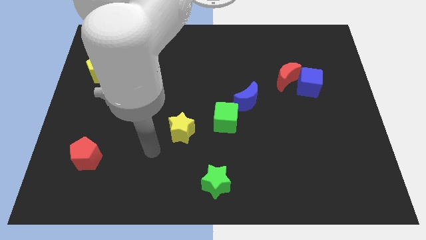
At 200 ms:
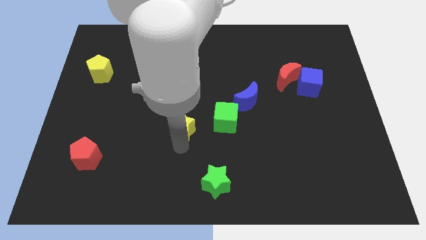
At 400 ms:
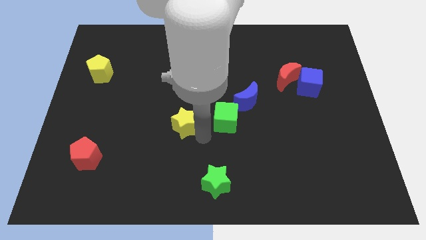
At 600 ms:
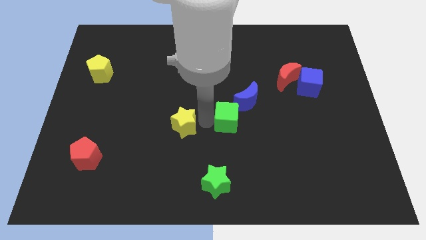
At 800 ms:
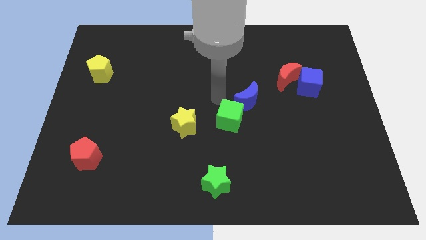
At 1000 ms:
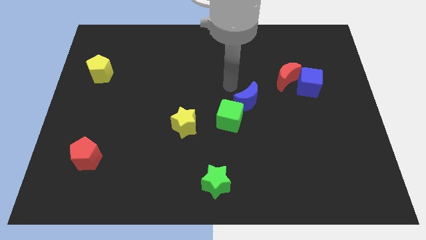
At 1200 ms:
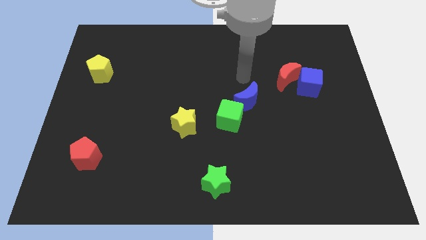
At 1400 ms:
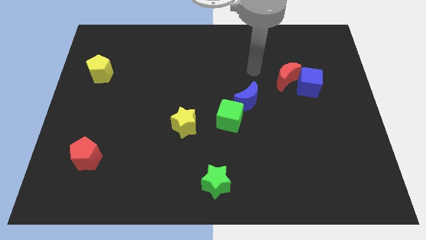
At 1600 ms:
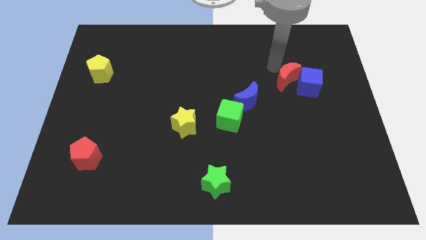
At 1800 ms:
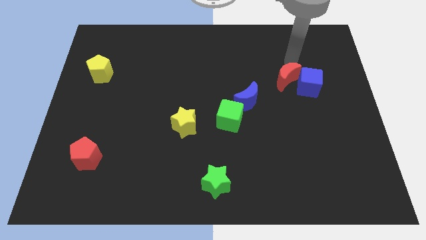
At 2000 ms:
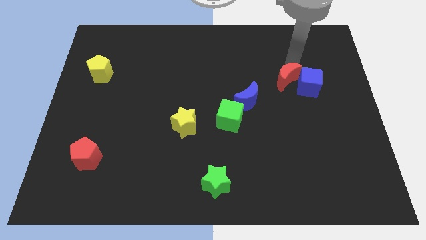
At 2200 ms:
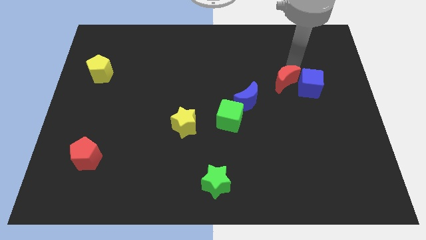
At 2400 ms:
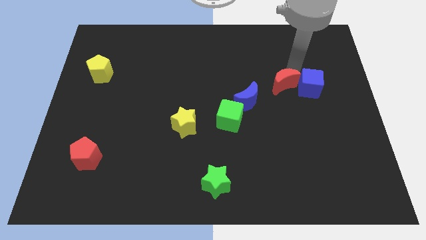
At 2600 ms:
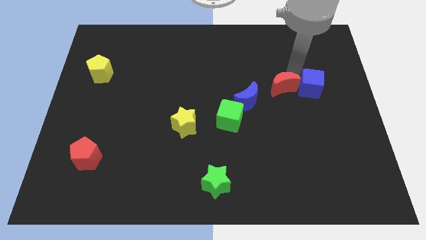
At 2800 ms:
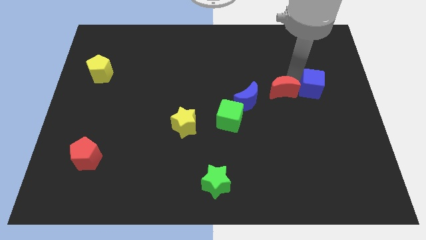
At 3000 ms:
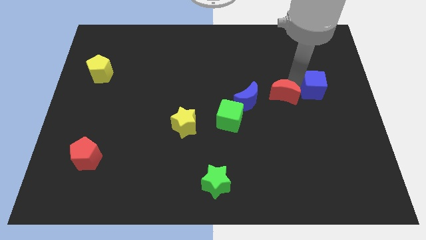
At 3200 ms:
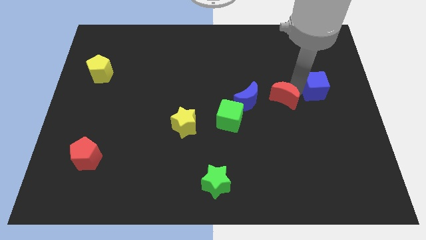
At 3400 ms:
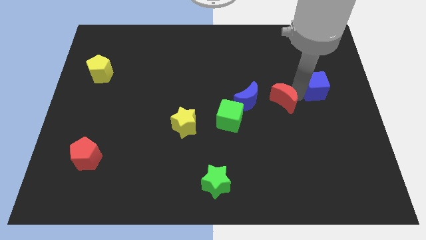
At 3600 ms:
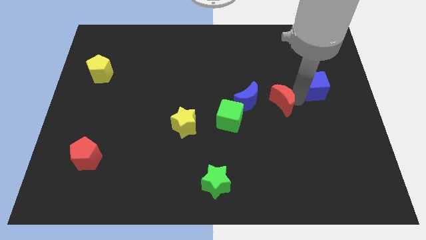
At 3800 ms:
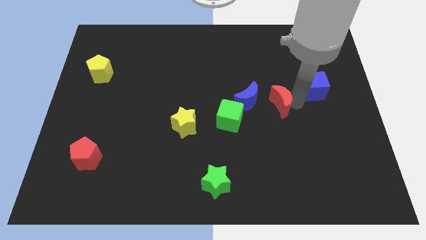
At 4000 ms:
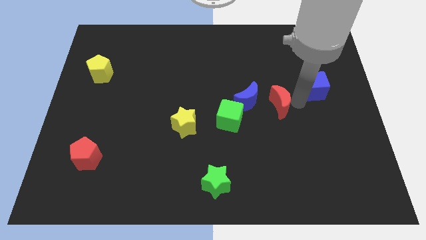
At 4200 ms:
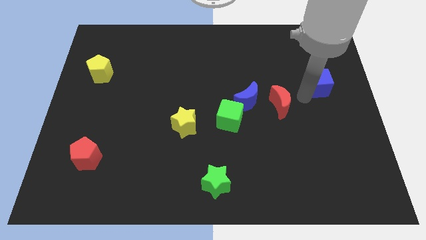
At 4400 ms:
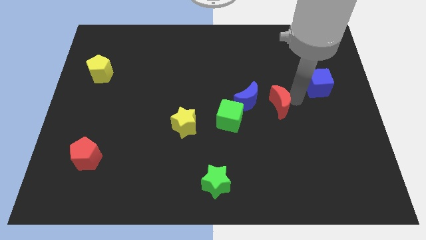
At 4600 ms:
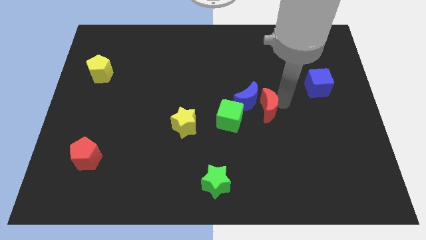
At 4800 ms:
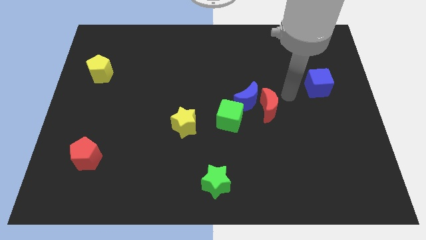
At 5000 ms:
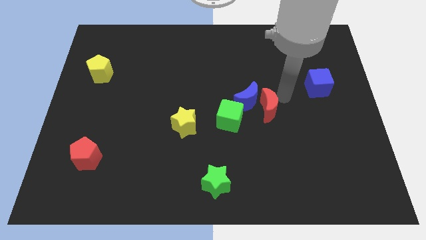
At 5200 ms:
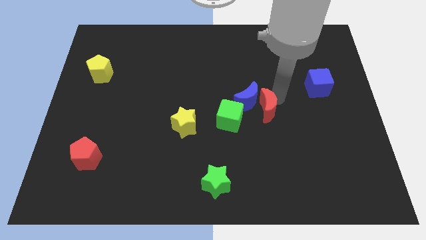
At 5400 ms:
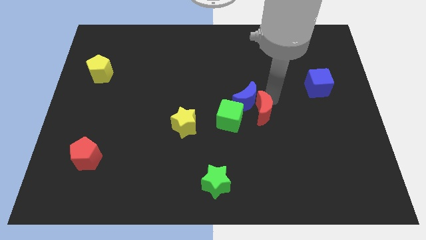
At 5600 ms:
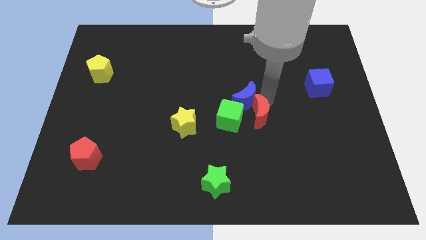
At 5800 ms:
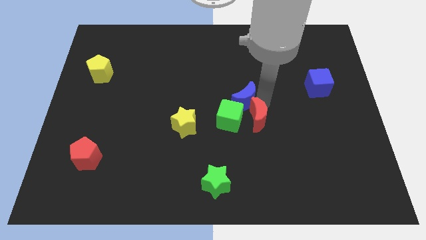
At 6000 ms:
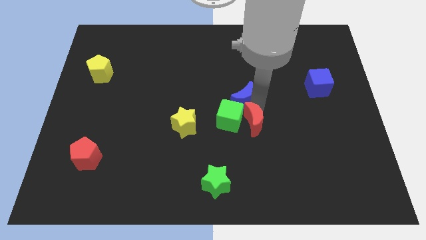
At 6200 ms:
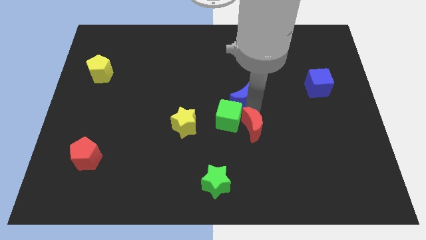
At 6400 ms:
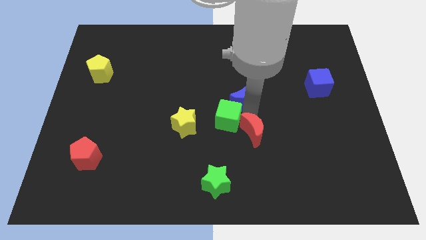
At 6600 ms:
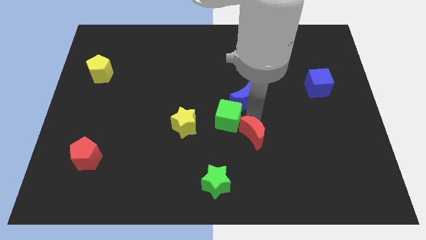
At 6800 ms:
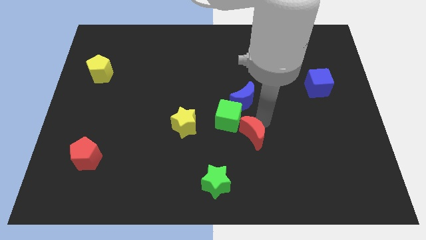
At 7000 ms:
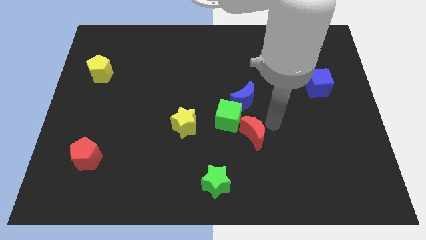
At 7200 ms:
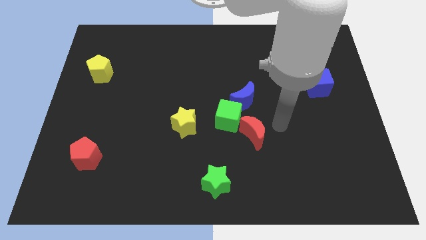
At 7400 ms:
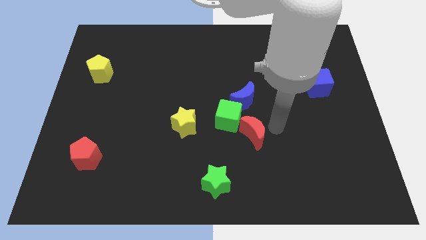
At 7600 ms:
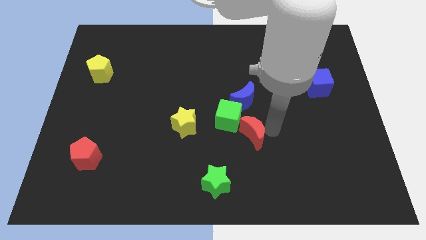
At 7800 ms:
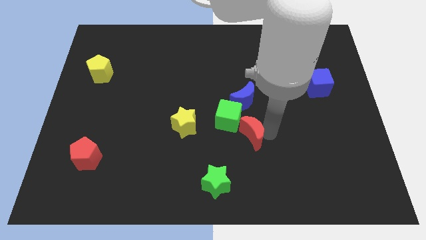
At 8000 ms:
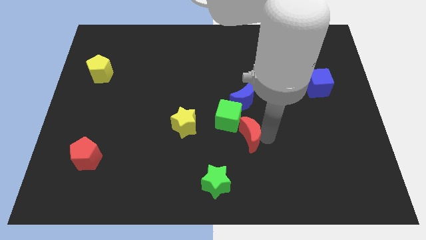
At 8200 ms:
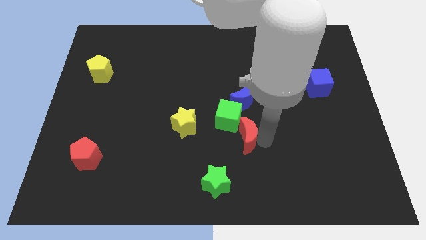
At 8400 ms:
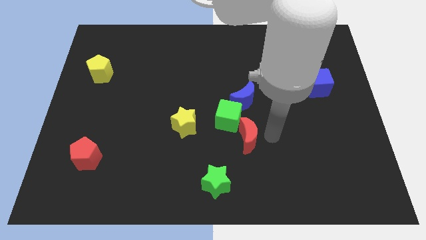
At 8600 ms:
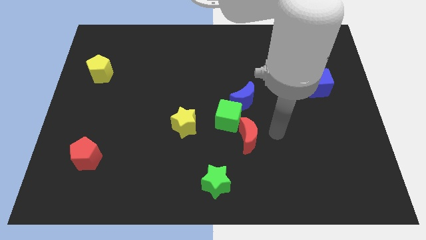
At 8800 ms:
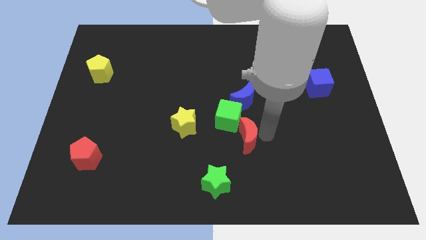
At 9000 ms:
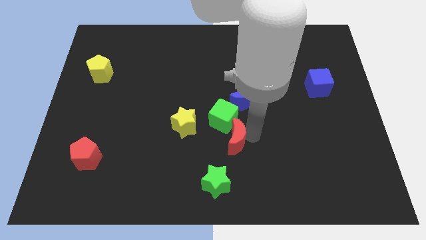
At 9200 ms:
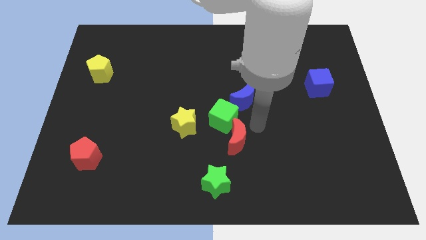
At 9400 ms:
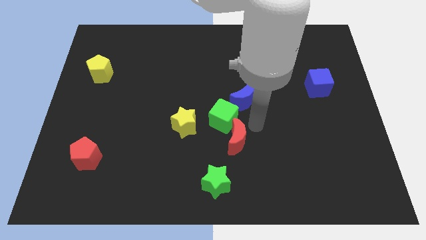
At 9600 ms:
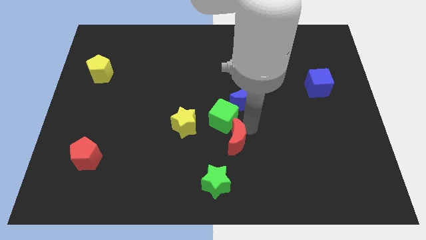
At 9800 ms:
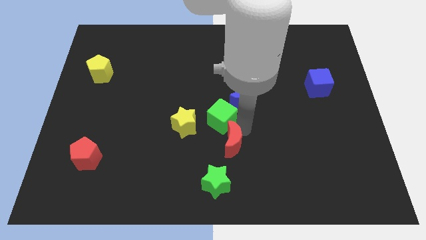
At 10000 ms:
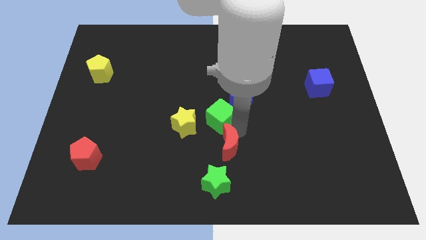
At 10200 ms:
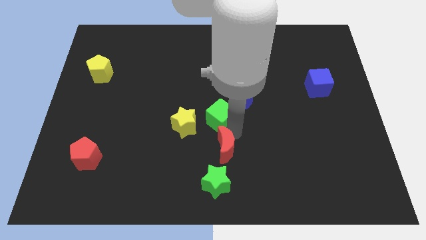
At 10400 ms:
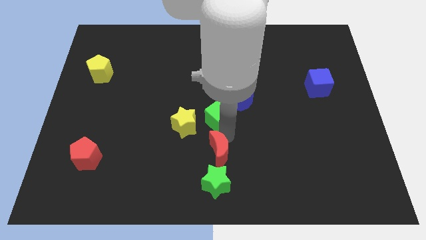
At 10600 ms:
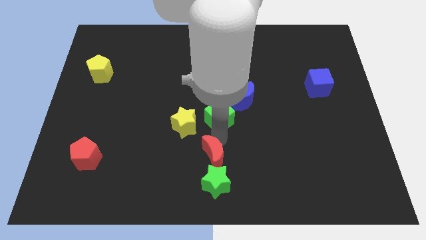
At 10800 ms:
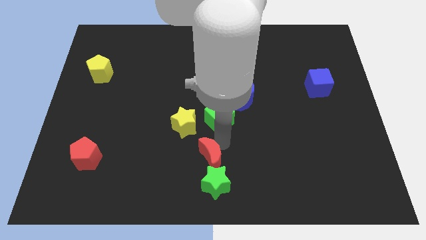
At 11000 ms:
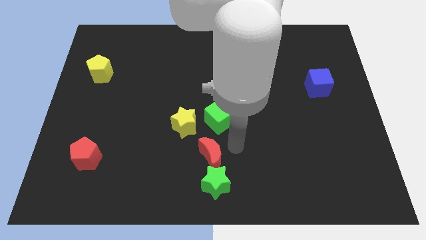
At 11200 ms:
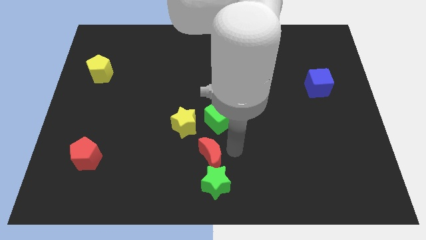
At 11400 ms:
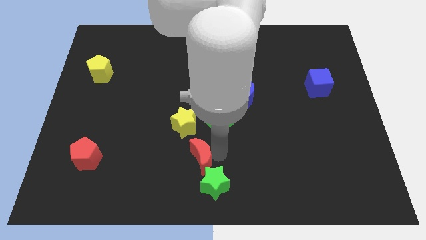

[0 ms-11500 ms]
put the red moon to the bottom of the yellow star

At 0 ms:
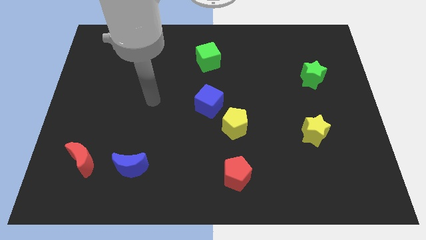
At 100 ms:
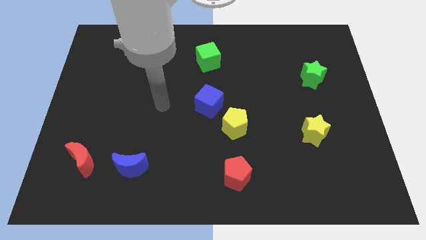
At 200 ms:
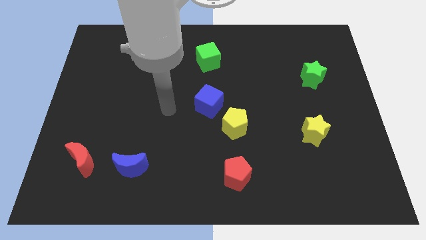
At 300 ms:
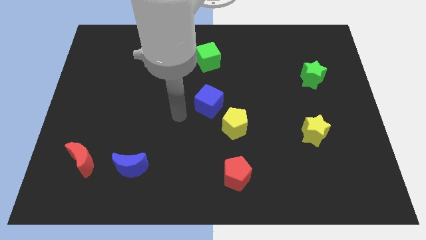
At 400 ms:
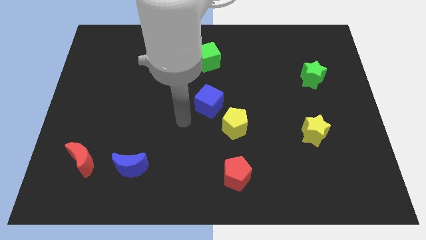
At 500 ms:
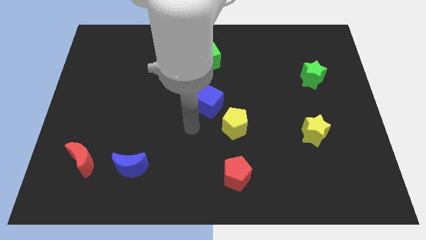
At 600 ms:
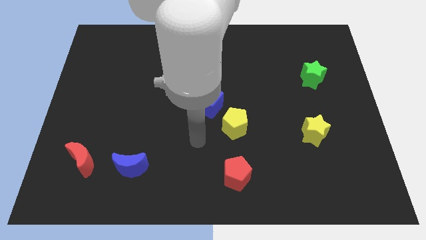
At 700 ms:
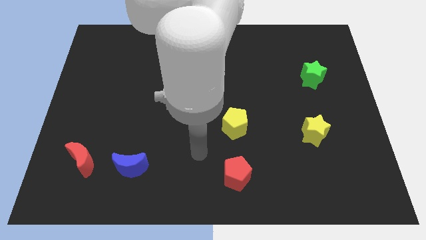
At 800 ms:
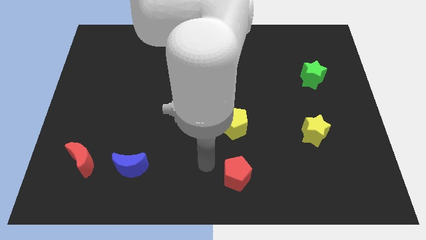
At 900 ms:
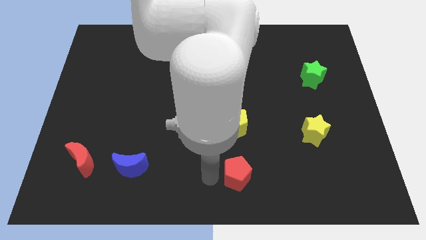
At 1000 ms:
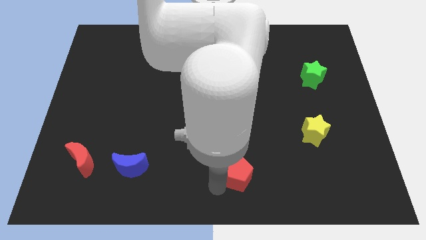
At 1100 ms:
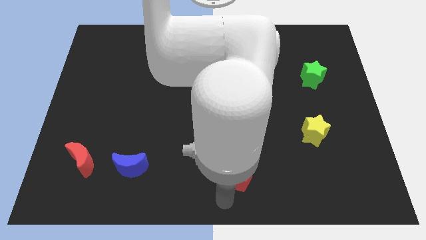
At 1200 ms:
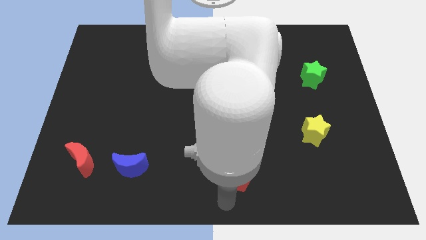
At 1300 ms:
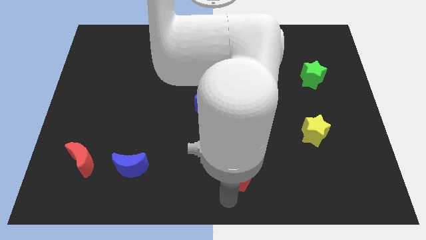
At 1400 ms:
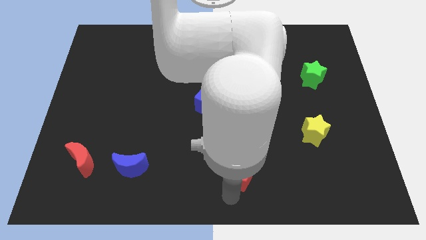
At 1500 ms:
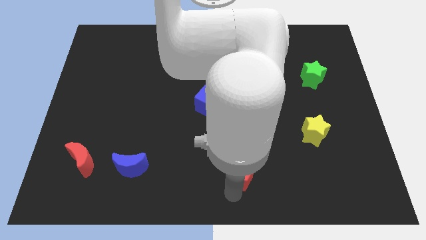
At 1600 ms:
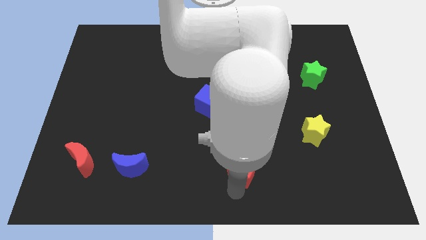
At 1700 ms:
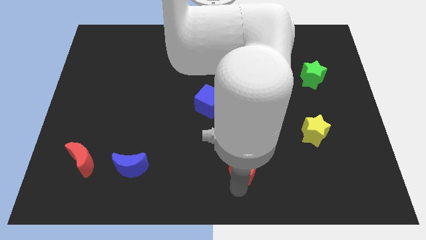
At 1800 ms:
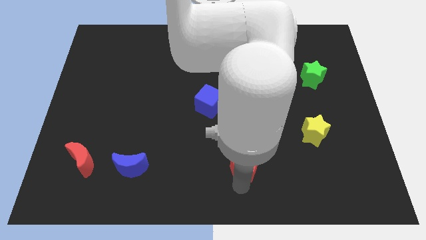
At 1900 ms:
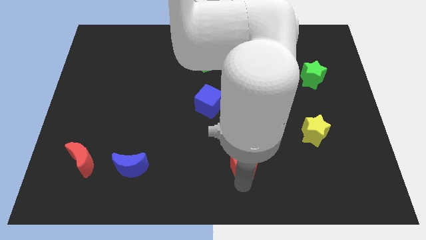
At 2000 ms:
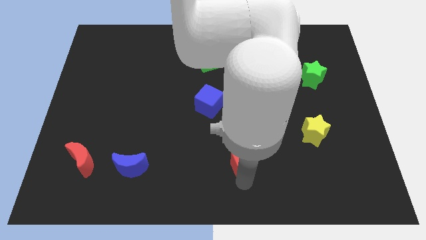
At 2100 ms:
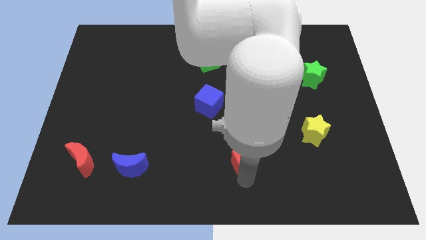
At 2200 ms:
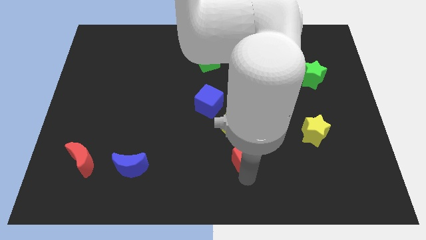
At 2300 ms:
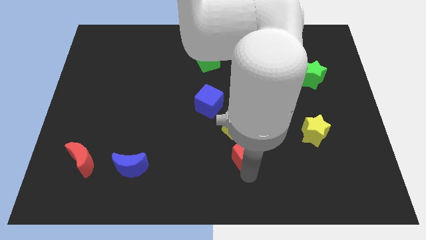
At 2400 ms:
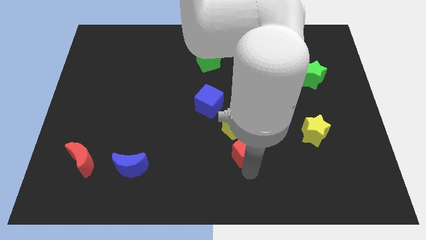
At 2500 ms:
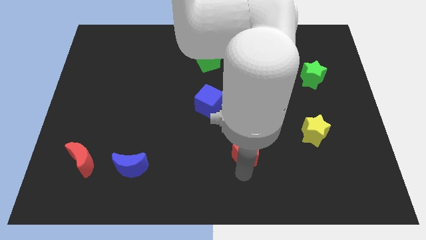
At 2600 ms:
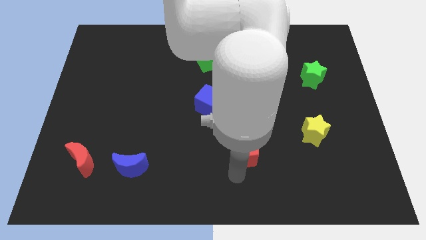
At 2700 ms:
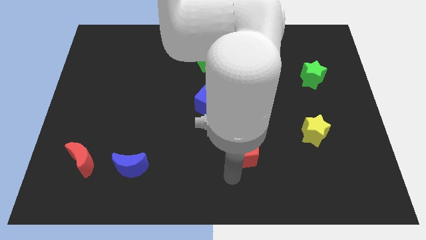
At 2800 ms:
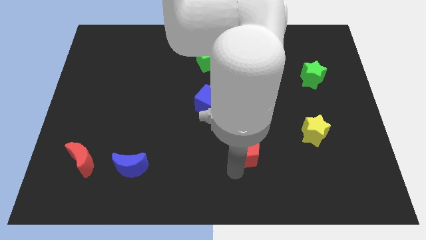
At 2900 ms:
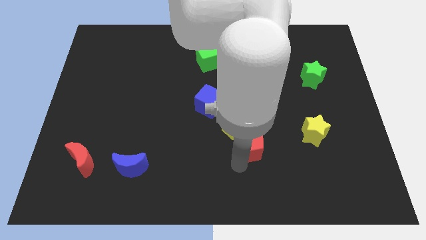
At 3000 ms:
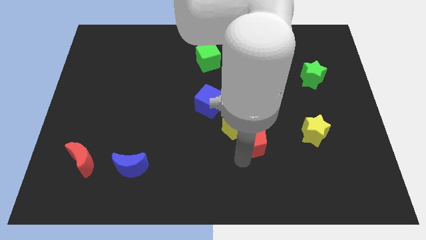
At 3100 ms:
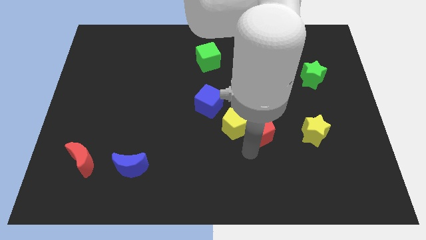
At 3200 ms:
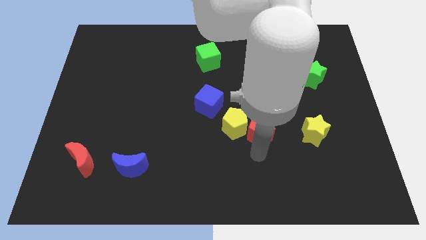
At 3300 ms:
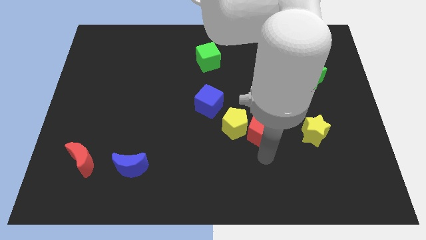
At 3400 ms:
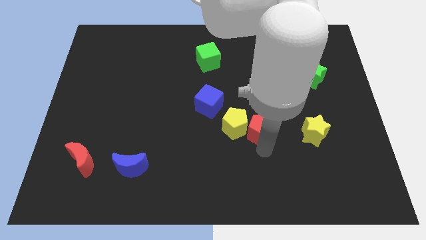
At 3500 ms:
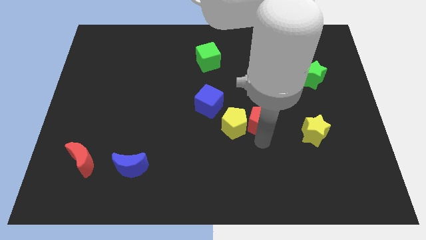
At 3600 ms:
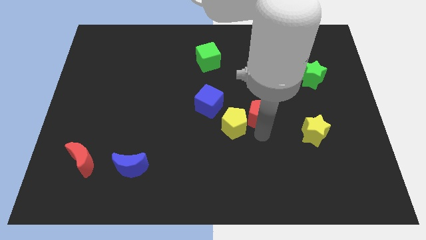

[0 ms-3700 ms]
put the red pentagon to the right side of the blue cube
